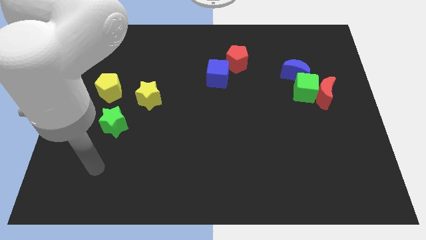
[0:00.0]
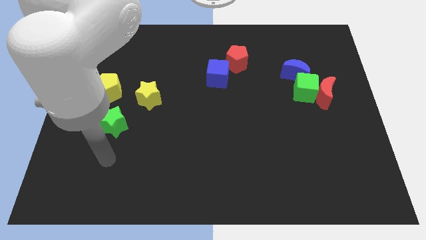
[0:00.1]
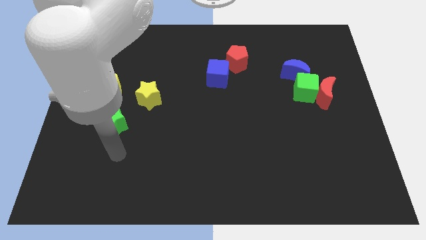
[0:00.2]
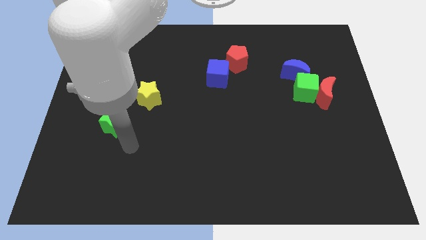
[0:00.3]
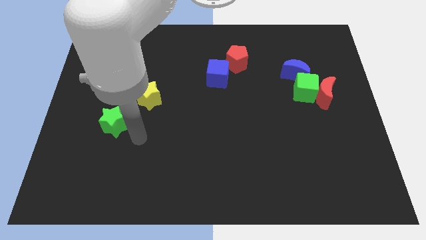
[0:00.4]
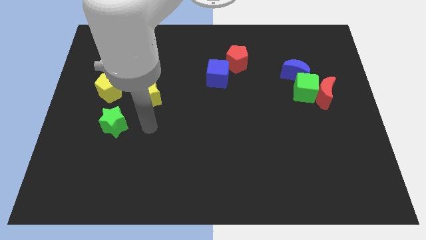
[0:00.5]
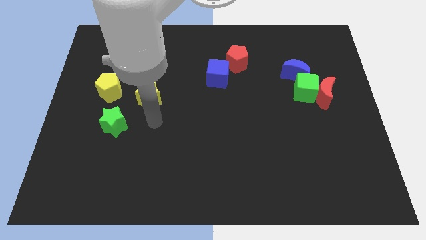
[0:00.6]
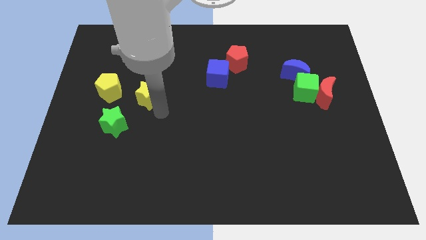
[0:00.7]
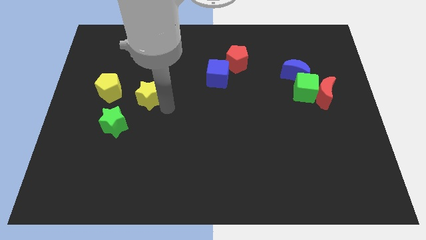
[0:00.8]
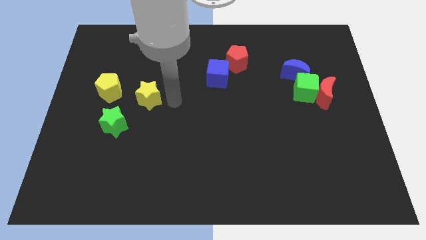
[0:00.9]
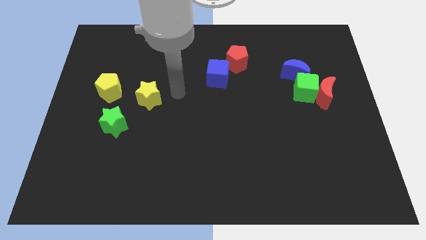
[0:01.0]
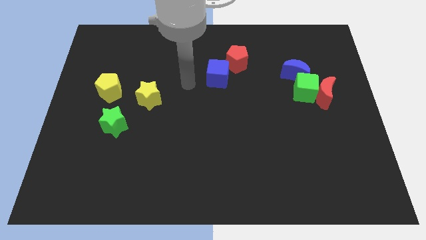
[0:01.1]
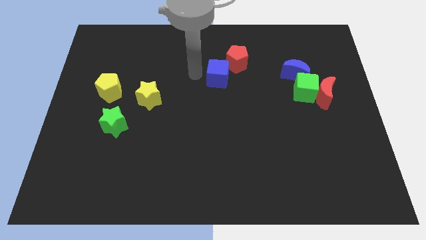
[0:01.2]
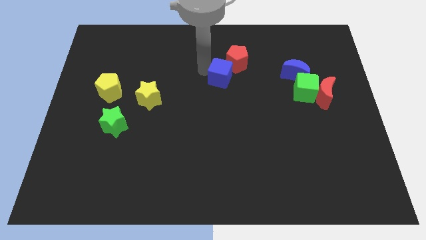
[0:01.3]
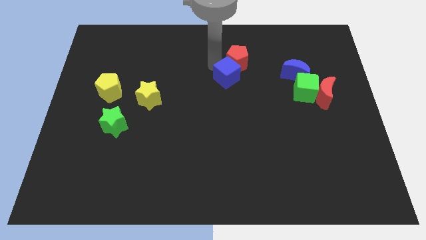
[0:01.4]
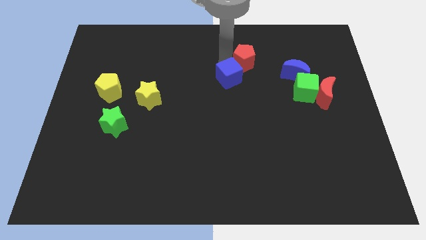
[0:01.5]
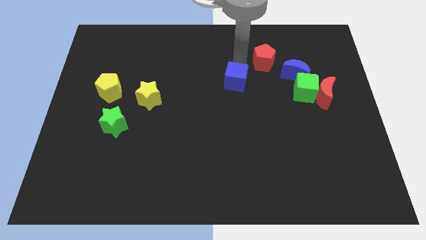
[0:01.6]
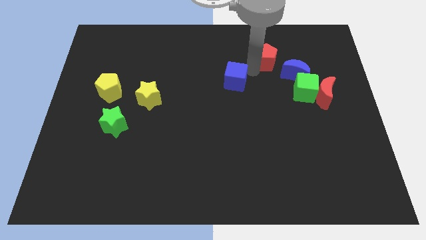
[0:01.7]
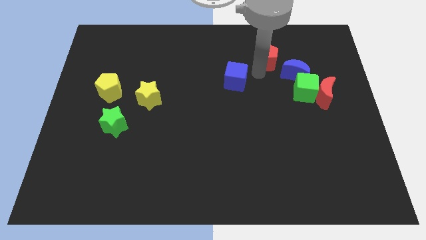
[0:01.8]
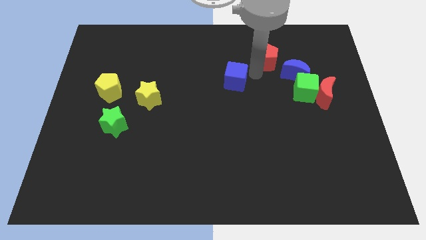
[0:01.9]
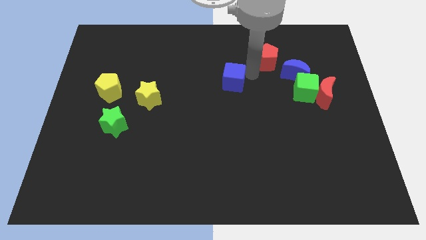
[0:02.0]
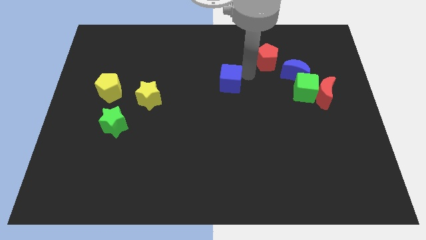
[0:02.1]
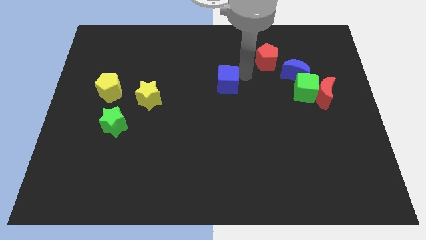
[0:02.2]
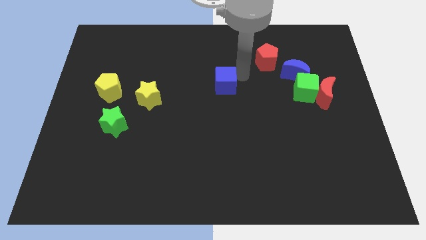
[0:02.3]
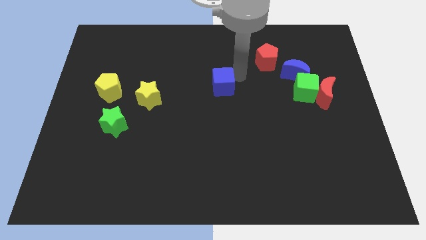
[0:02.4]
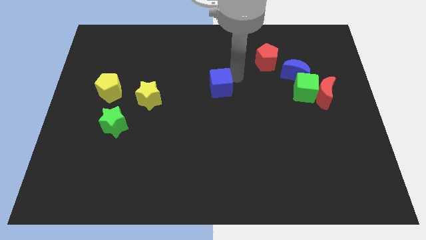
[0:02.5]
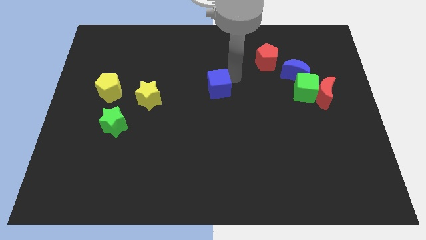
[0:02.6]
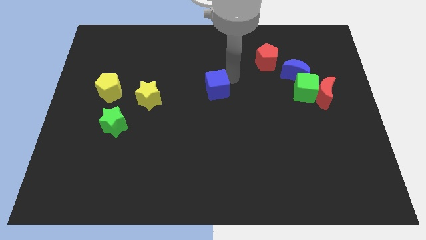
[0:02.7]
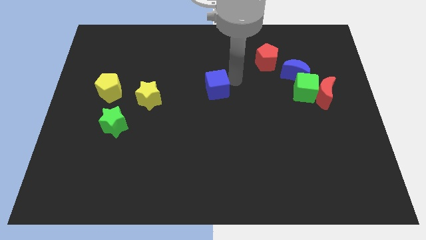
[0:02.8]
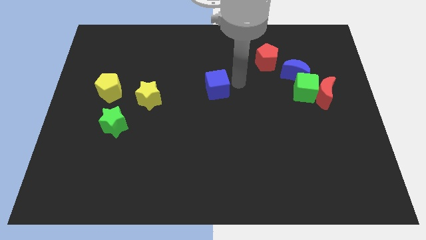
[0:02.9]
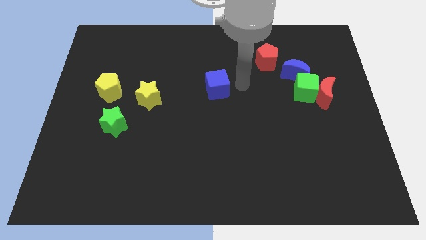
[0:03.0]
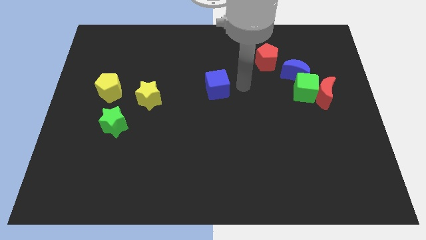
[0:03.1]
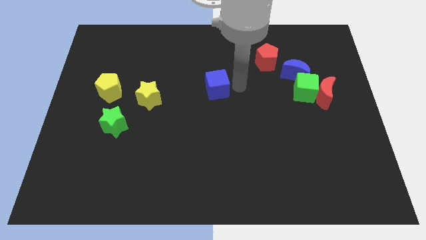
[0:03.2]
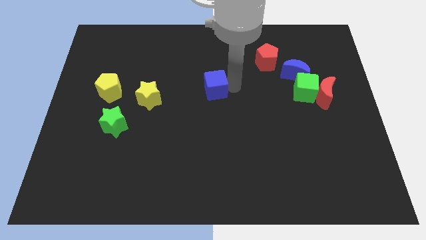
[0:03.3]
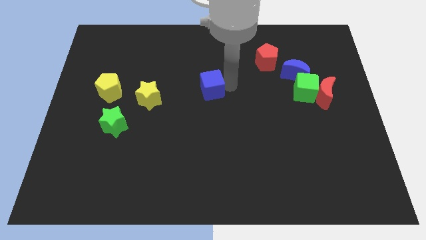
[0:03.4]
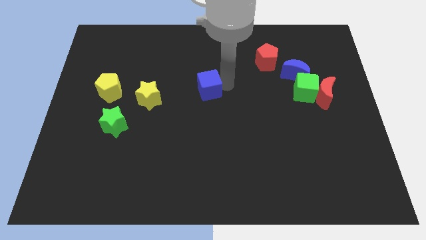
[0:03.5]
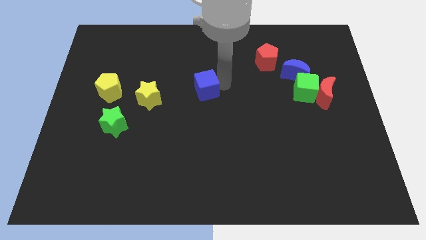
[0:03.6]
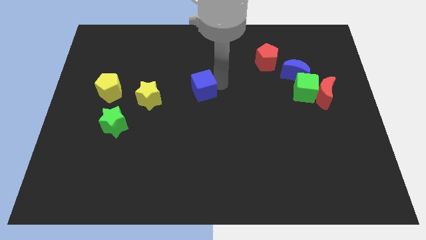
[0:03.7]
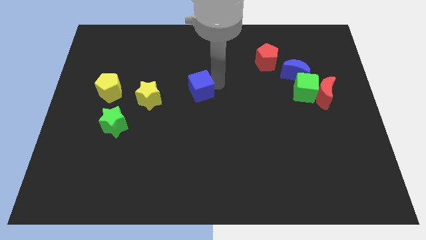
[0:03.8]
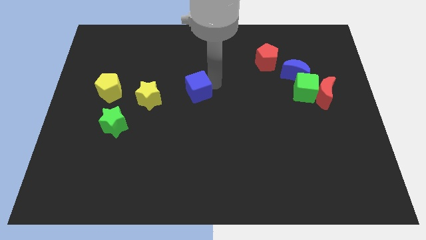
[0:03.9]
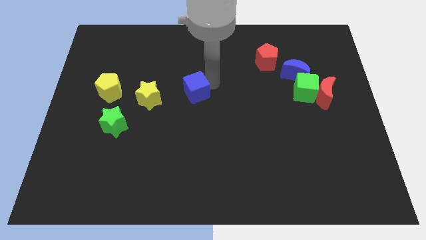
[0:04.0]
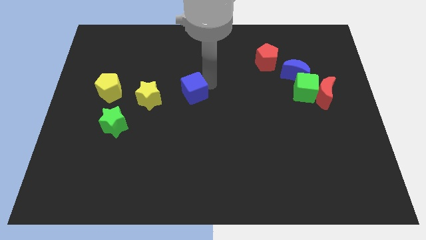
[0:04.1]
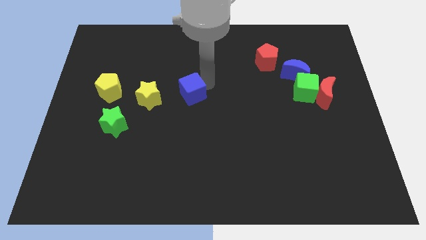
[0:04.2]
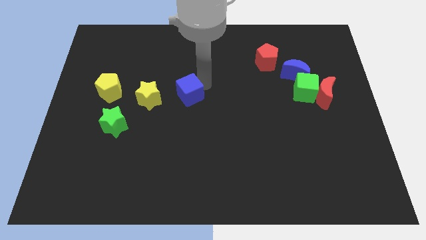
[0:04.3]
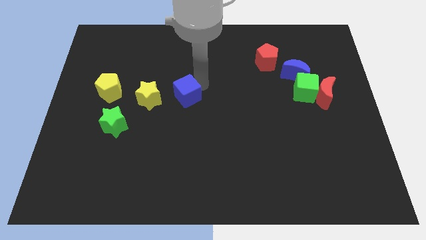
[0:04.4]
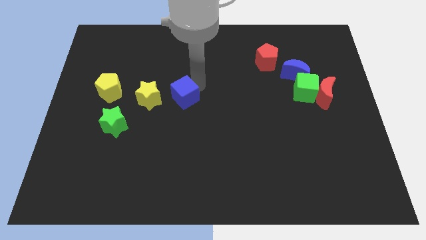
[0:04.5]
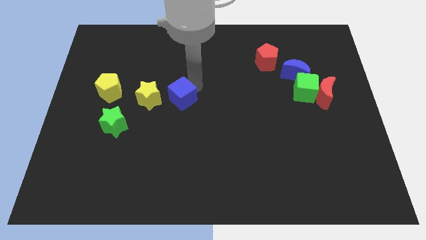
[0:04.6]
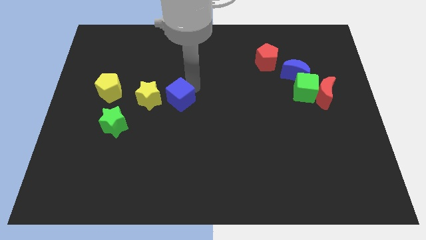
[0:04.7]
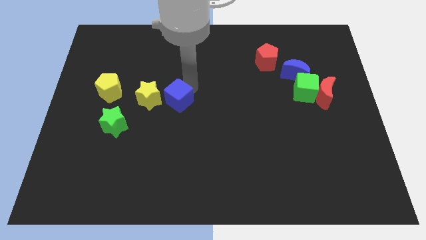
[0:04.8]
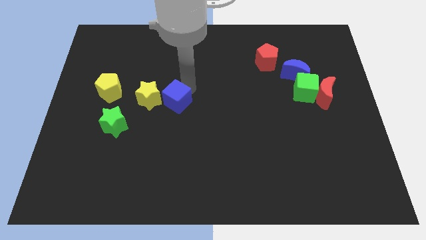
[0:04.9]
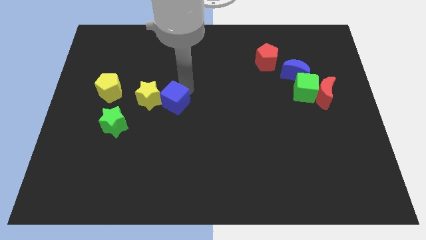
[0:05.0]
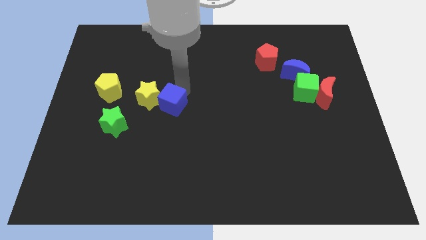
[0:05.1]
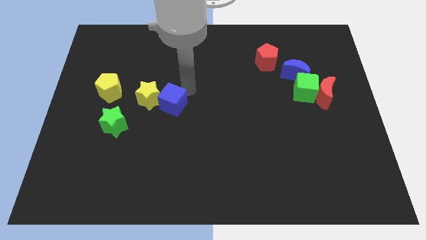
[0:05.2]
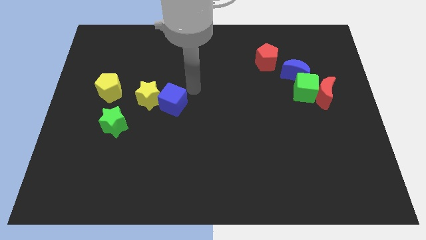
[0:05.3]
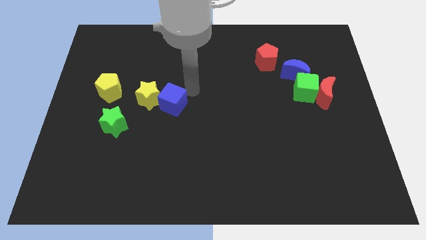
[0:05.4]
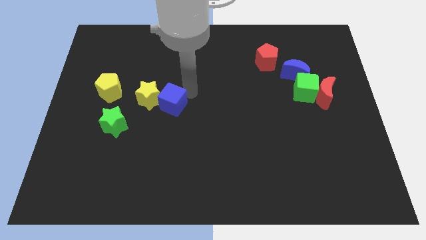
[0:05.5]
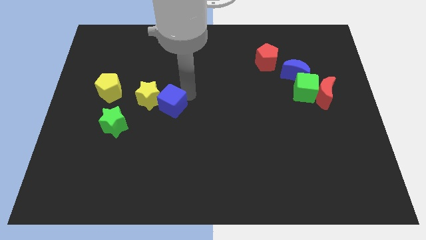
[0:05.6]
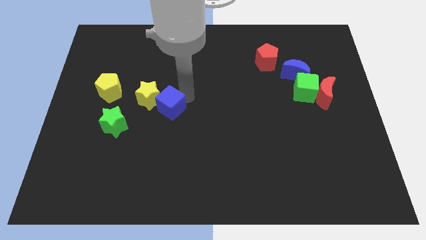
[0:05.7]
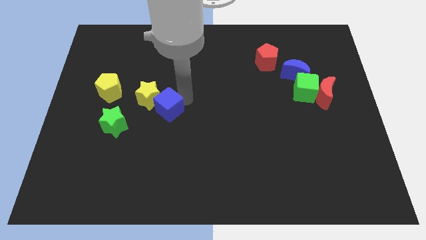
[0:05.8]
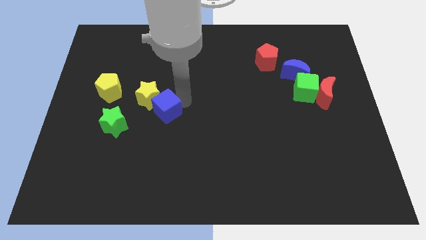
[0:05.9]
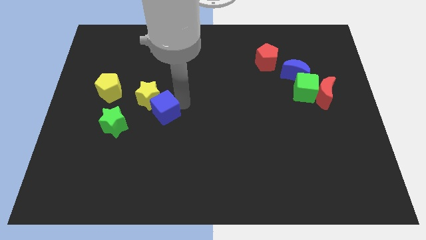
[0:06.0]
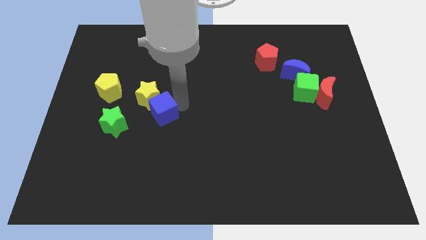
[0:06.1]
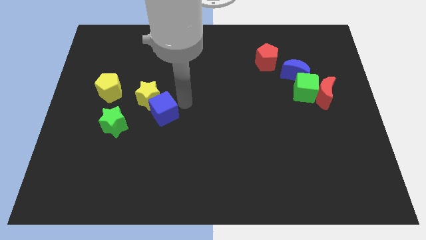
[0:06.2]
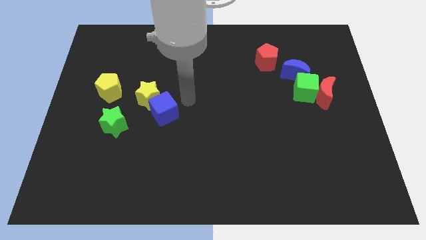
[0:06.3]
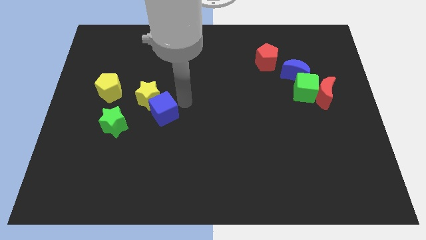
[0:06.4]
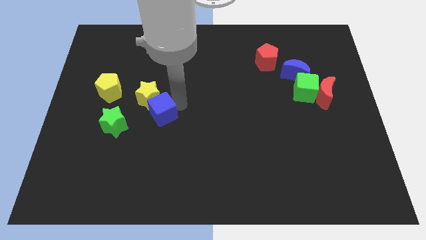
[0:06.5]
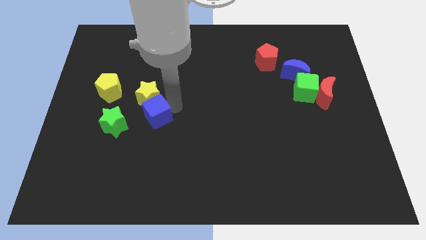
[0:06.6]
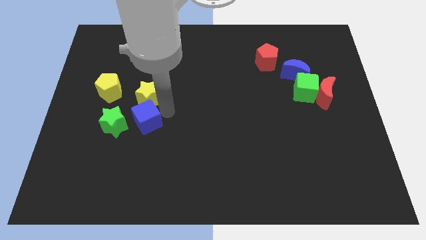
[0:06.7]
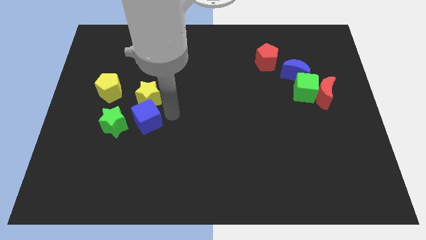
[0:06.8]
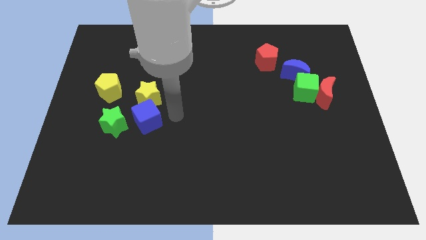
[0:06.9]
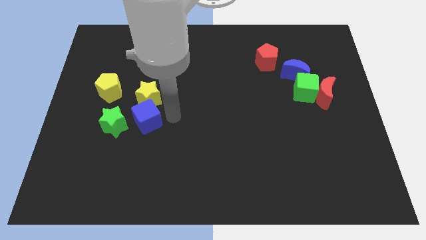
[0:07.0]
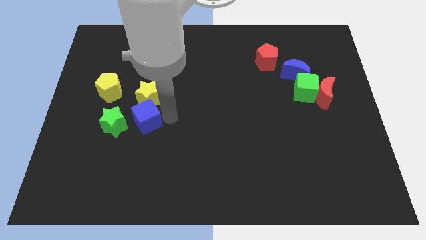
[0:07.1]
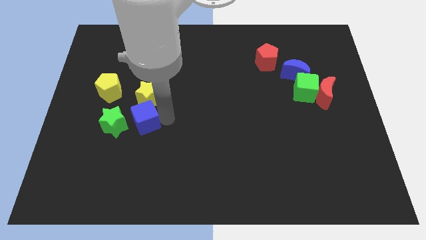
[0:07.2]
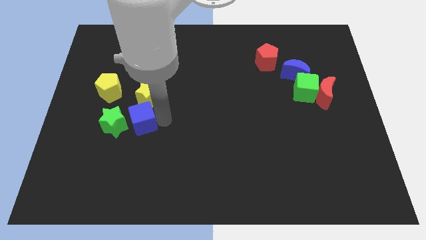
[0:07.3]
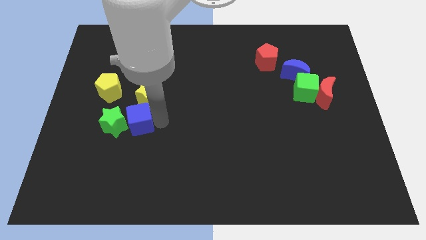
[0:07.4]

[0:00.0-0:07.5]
move the blue cube towards the green star
